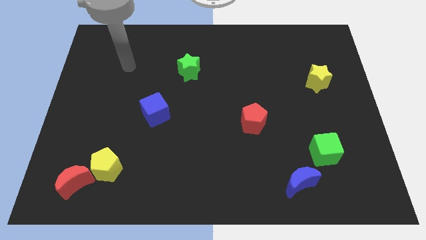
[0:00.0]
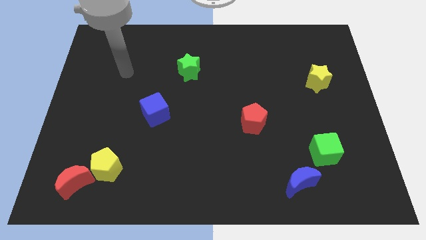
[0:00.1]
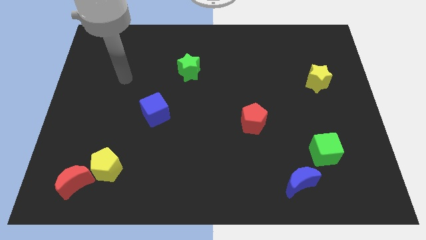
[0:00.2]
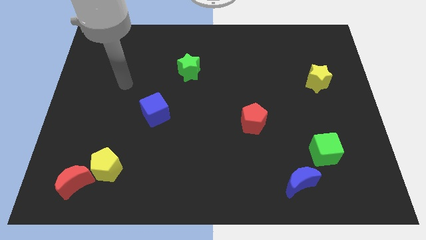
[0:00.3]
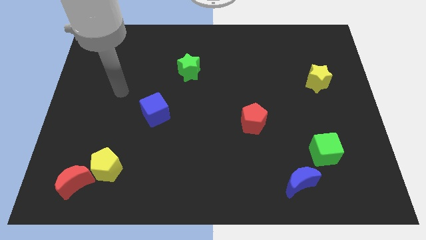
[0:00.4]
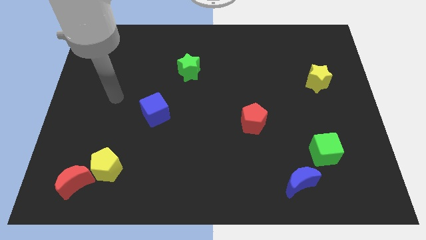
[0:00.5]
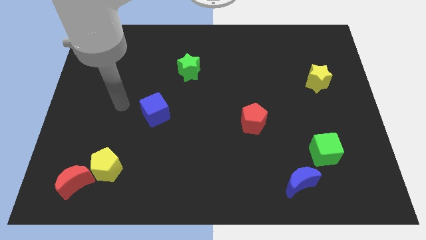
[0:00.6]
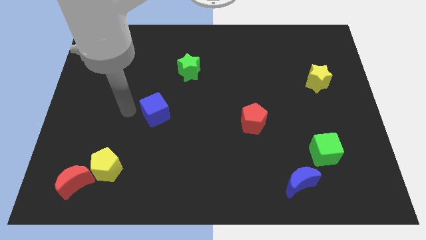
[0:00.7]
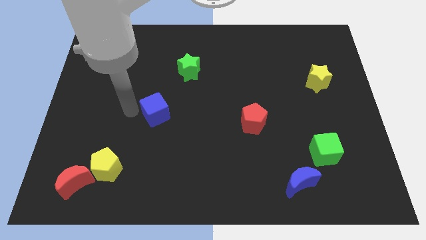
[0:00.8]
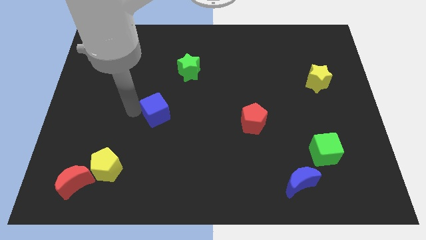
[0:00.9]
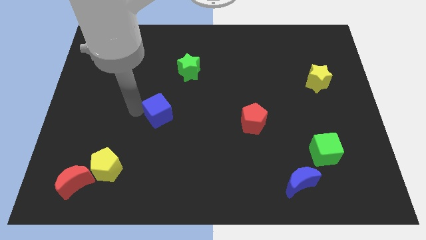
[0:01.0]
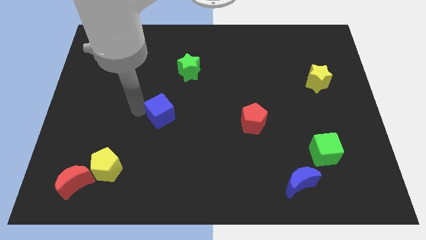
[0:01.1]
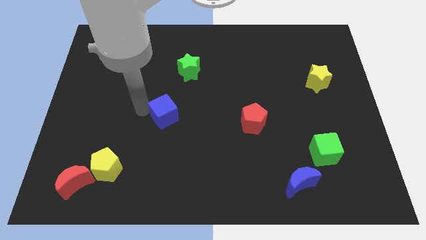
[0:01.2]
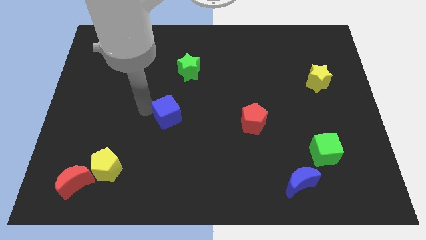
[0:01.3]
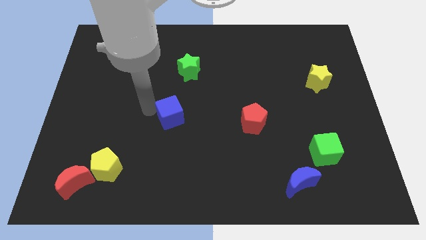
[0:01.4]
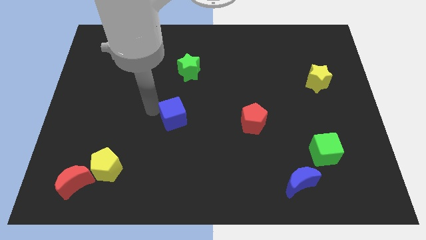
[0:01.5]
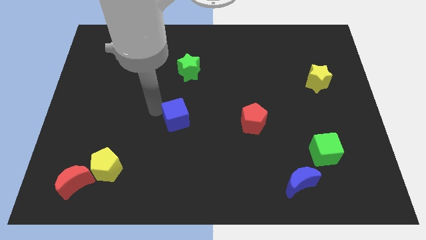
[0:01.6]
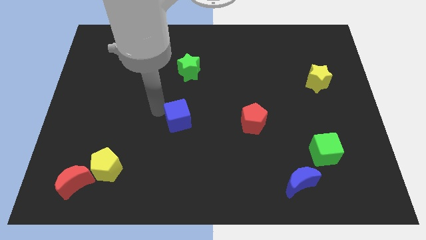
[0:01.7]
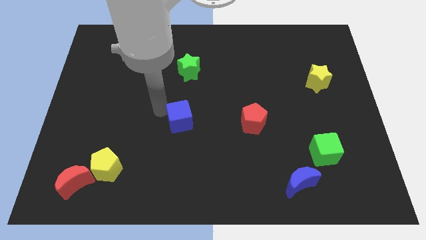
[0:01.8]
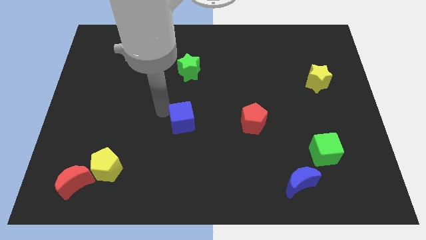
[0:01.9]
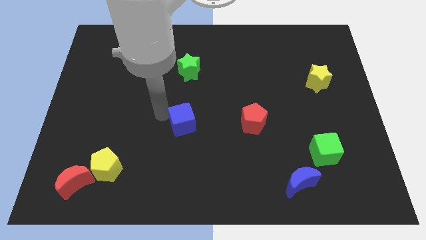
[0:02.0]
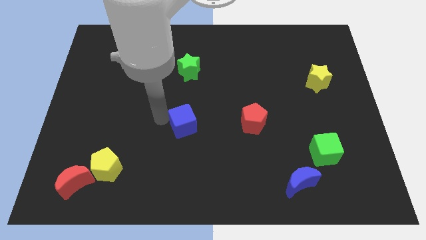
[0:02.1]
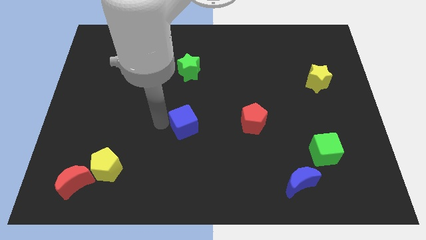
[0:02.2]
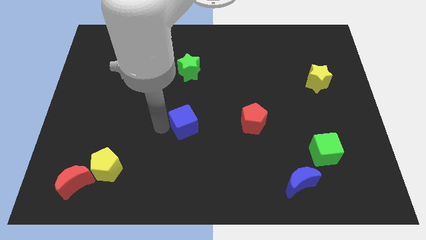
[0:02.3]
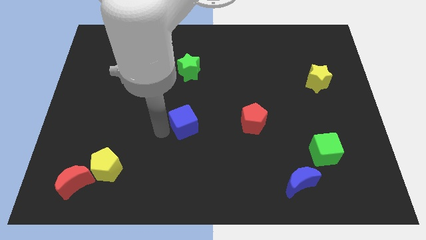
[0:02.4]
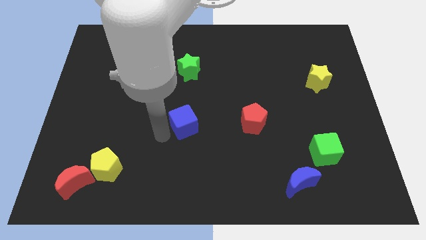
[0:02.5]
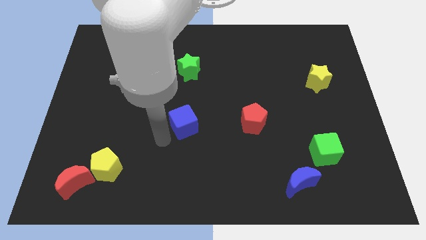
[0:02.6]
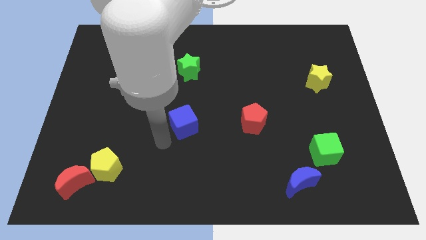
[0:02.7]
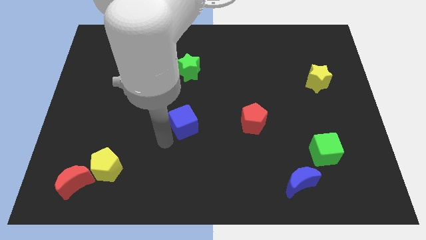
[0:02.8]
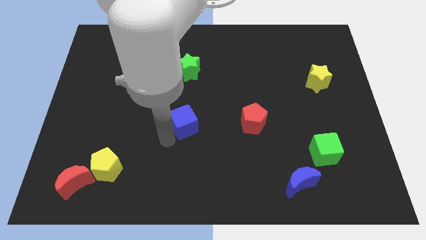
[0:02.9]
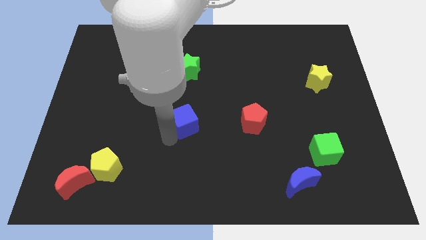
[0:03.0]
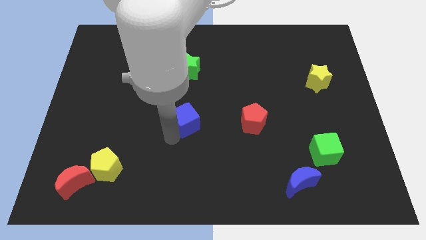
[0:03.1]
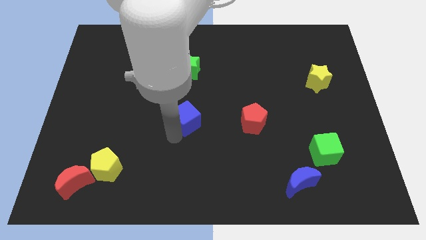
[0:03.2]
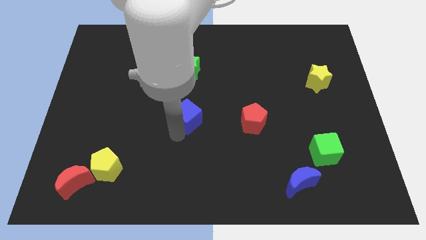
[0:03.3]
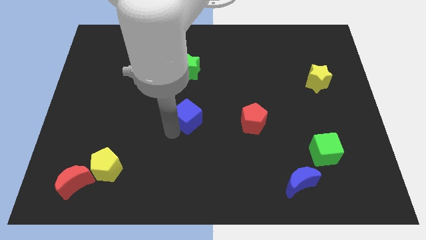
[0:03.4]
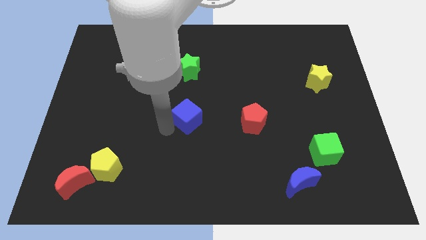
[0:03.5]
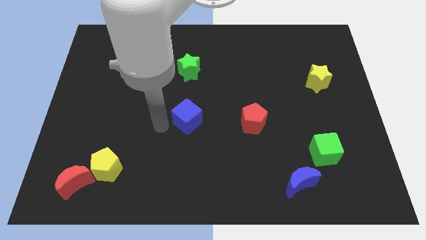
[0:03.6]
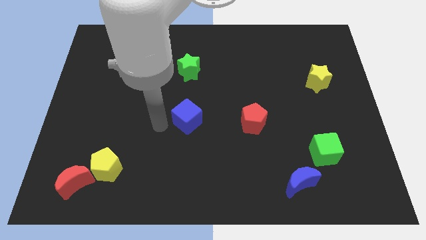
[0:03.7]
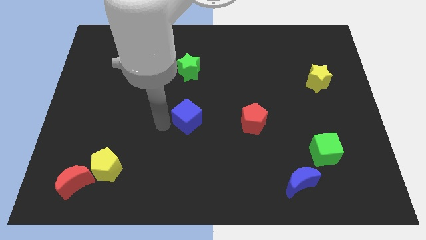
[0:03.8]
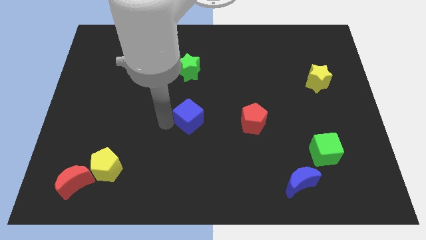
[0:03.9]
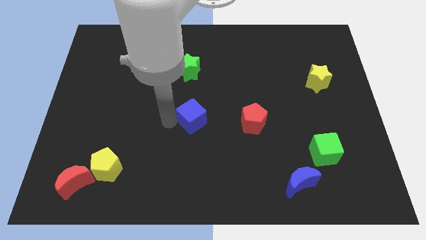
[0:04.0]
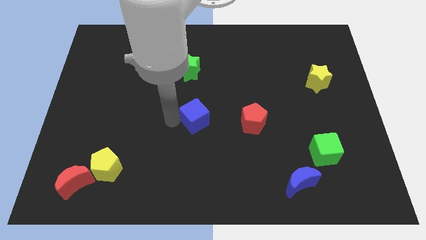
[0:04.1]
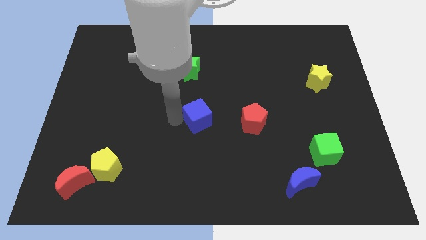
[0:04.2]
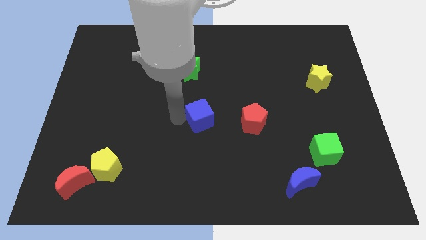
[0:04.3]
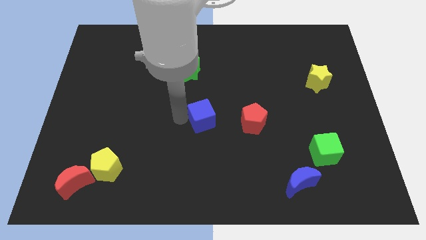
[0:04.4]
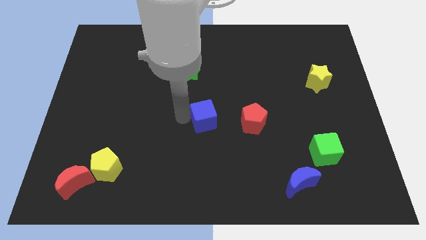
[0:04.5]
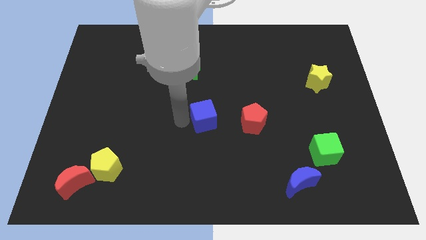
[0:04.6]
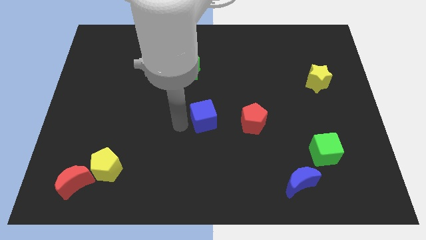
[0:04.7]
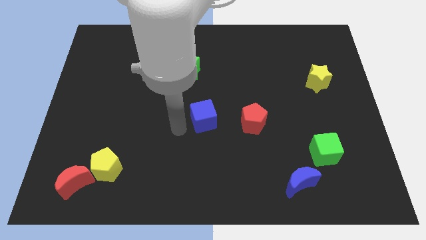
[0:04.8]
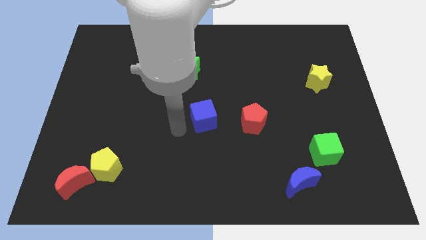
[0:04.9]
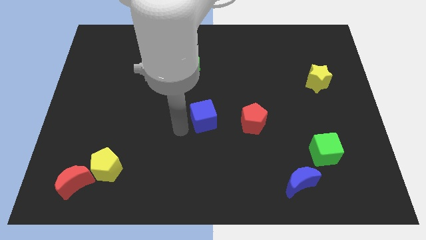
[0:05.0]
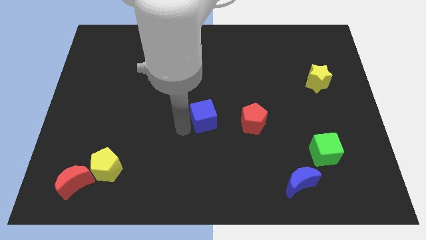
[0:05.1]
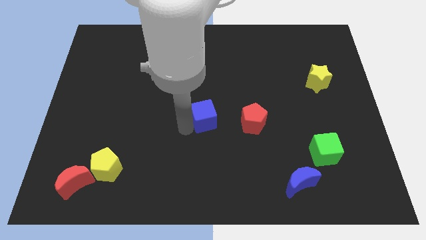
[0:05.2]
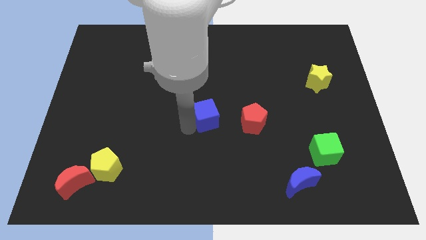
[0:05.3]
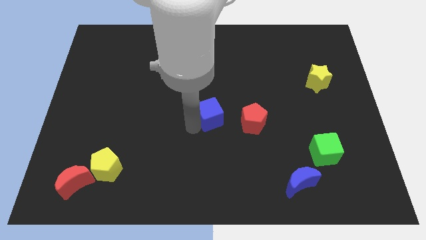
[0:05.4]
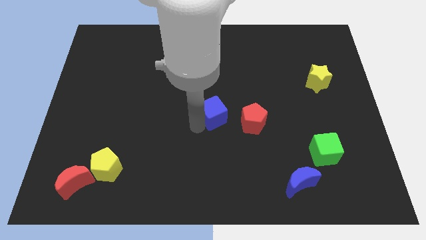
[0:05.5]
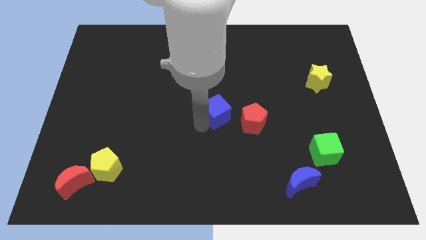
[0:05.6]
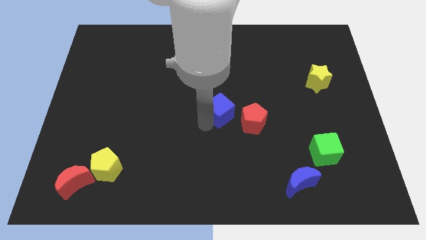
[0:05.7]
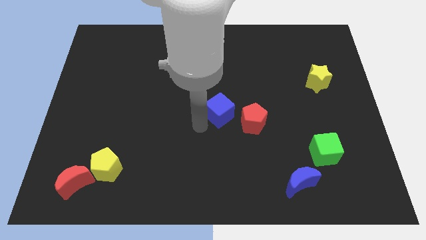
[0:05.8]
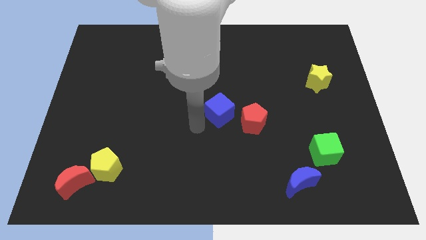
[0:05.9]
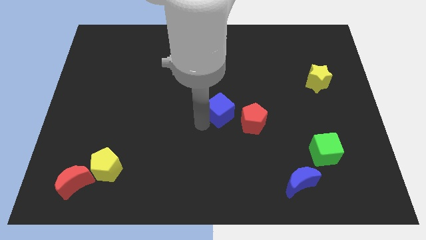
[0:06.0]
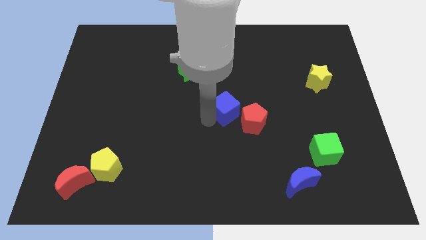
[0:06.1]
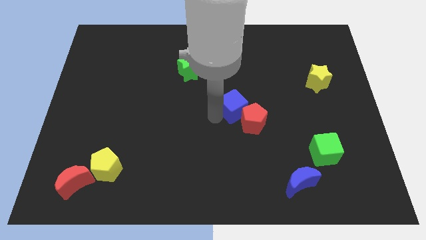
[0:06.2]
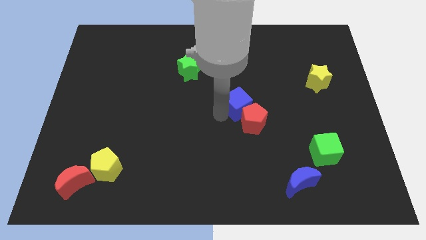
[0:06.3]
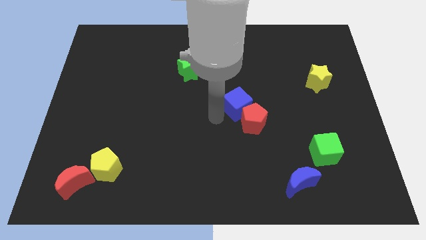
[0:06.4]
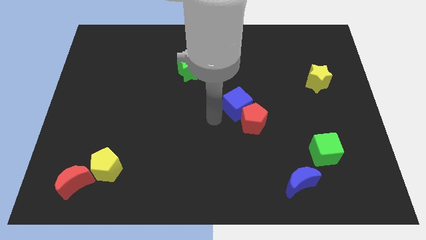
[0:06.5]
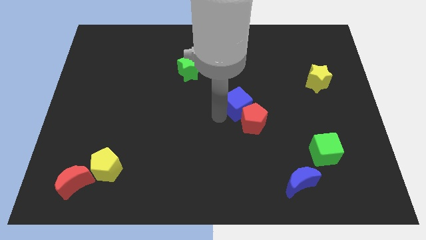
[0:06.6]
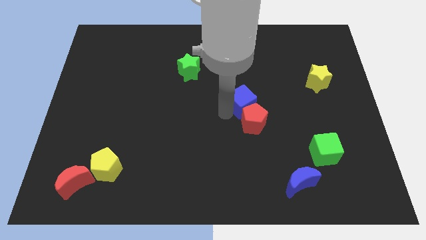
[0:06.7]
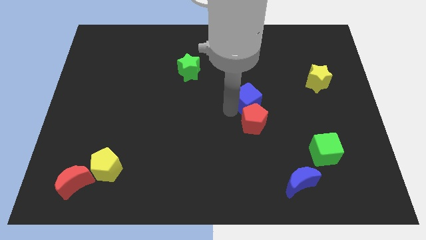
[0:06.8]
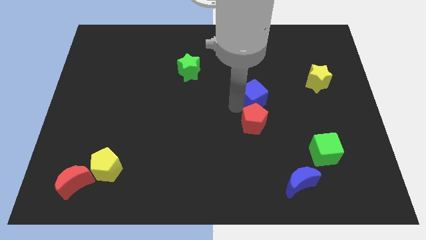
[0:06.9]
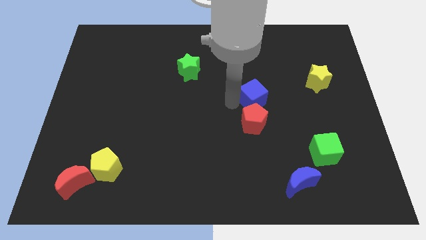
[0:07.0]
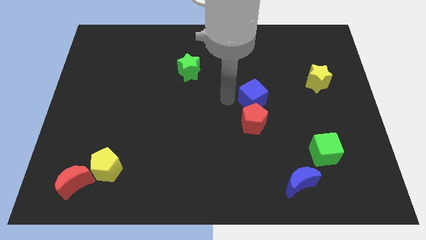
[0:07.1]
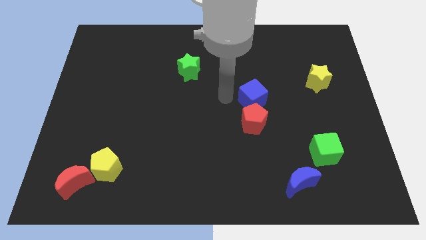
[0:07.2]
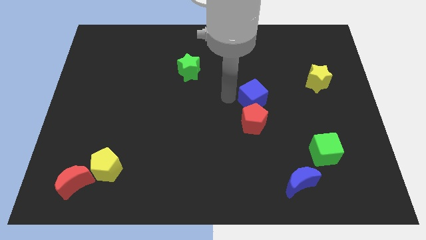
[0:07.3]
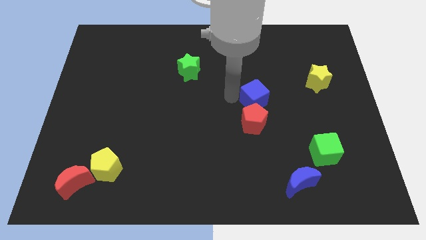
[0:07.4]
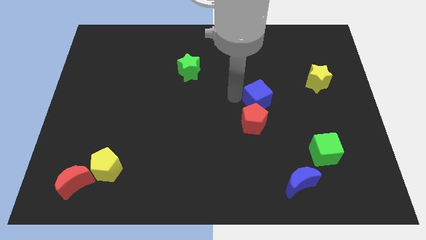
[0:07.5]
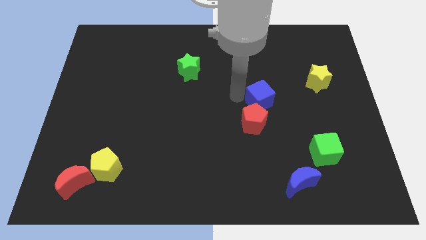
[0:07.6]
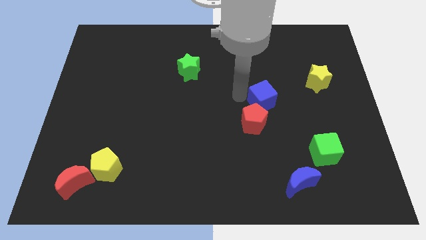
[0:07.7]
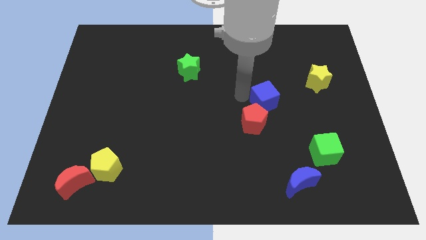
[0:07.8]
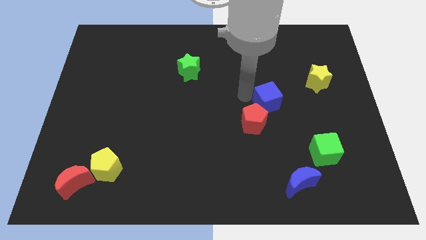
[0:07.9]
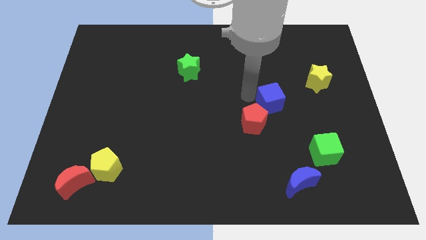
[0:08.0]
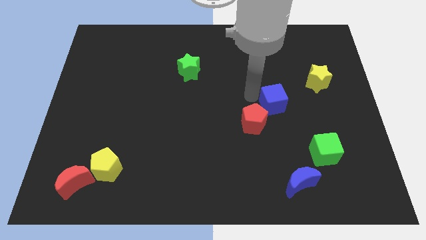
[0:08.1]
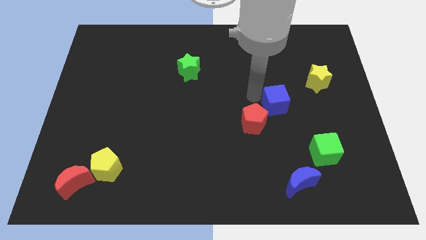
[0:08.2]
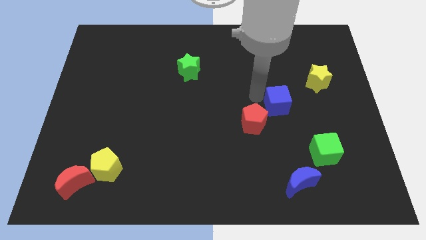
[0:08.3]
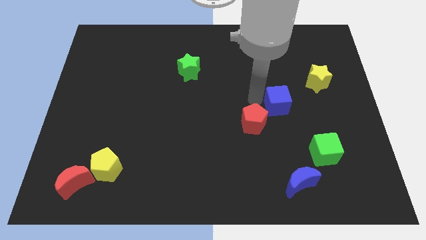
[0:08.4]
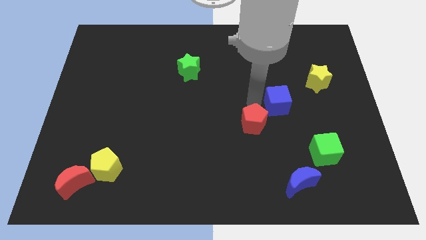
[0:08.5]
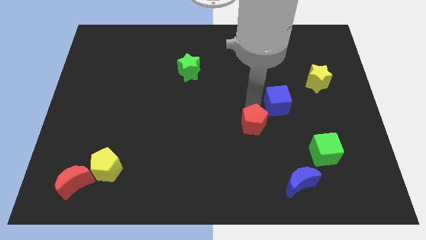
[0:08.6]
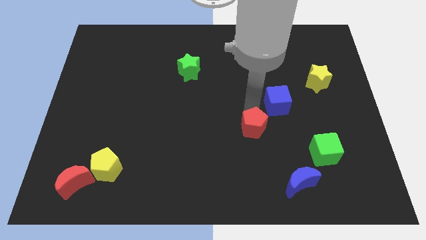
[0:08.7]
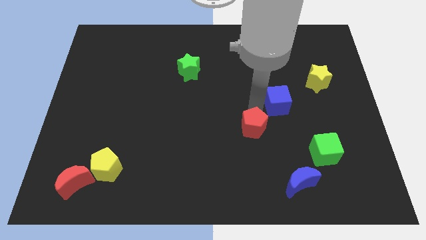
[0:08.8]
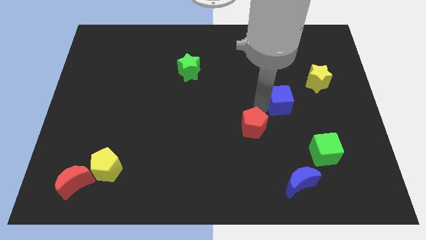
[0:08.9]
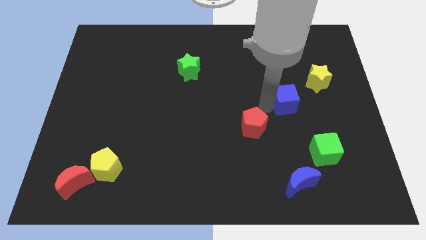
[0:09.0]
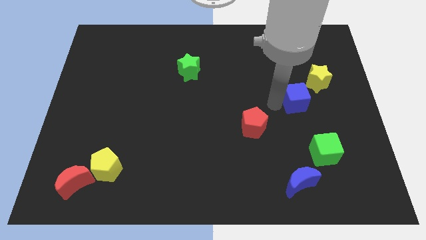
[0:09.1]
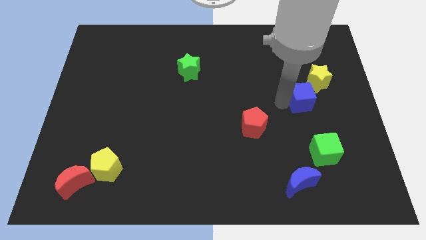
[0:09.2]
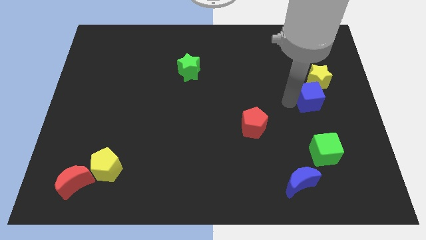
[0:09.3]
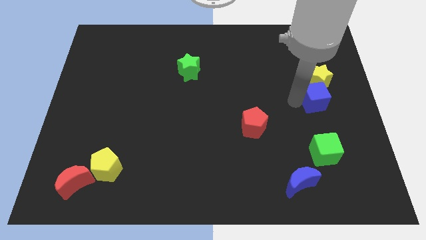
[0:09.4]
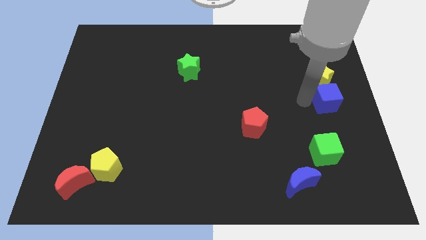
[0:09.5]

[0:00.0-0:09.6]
move the blue cube to the right side
